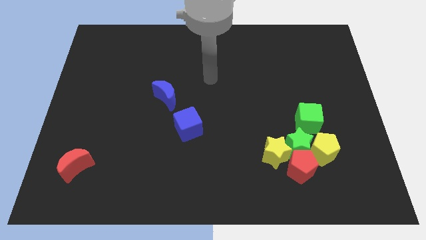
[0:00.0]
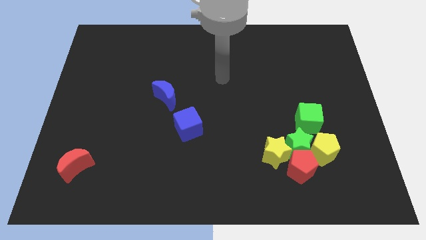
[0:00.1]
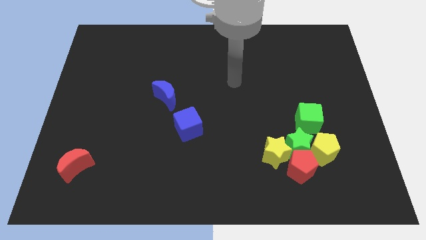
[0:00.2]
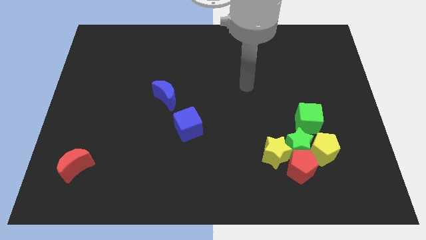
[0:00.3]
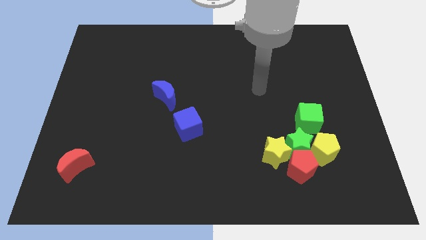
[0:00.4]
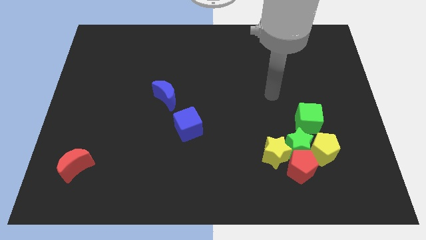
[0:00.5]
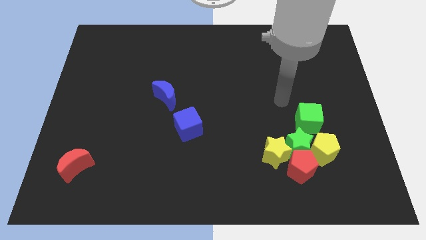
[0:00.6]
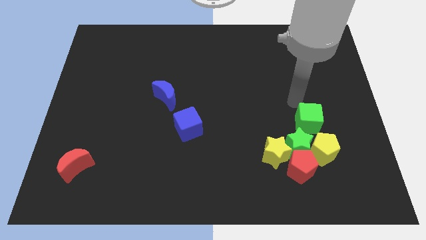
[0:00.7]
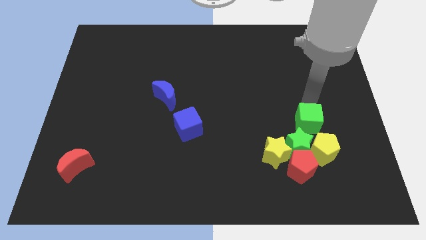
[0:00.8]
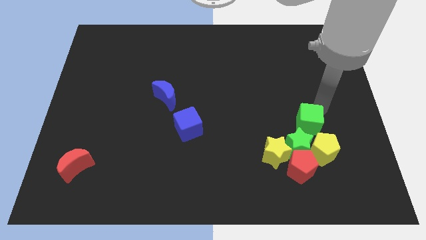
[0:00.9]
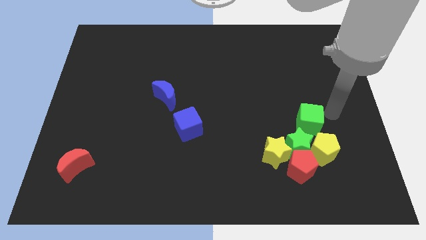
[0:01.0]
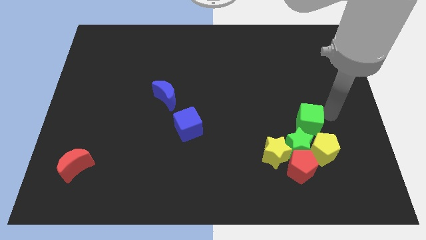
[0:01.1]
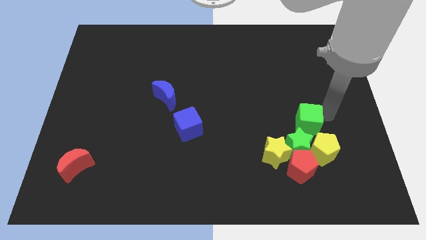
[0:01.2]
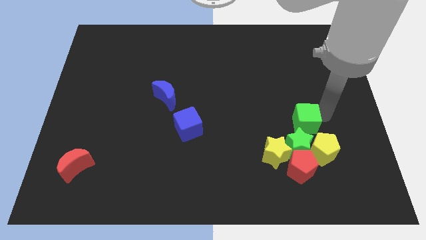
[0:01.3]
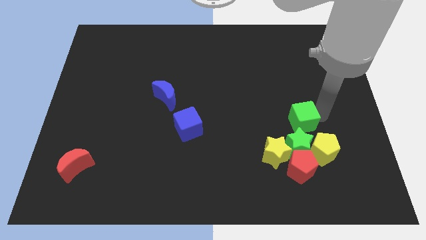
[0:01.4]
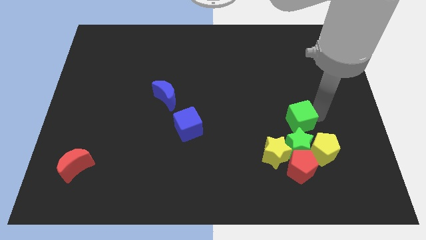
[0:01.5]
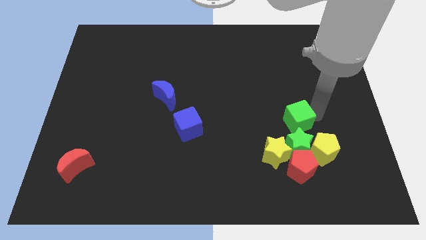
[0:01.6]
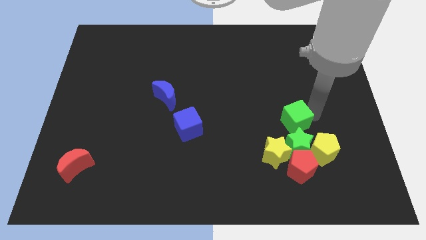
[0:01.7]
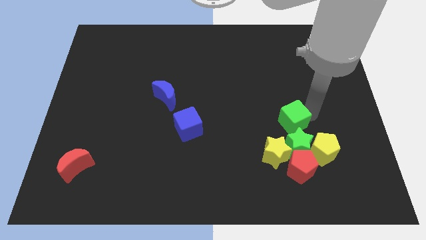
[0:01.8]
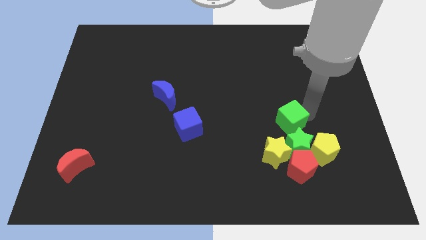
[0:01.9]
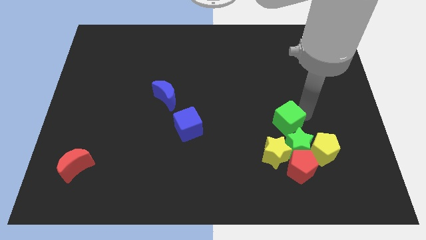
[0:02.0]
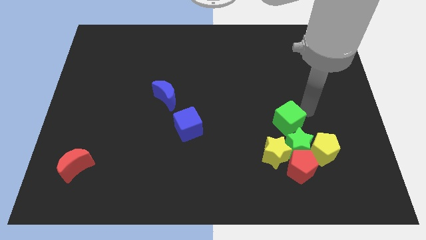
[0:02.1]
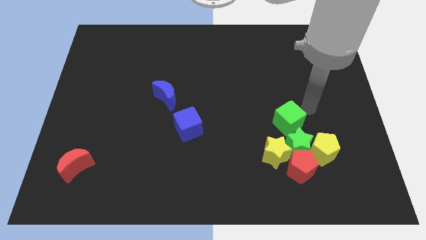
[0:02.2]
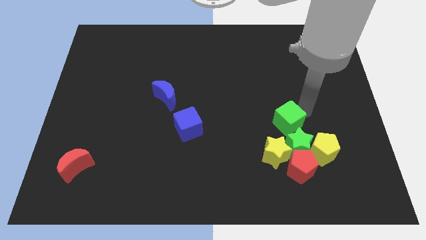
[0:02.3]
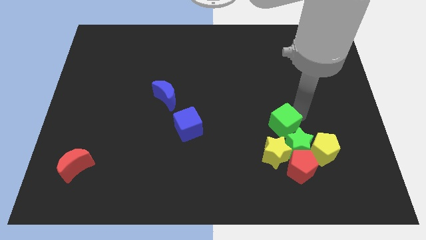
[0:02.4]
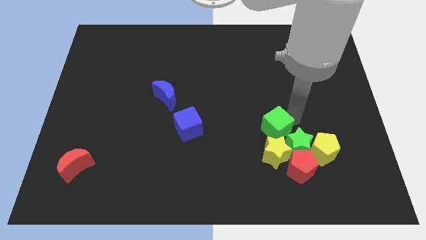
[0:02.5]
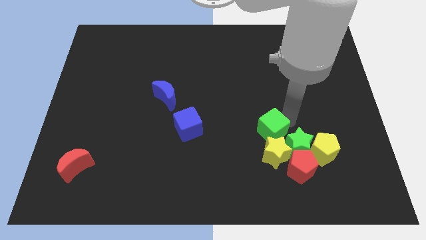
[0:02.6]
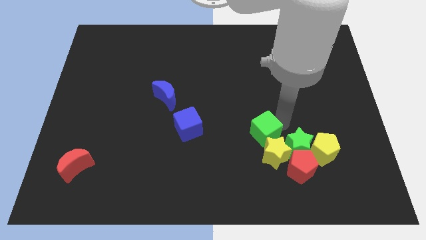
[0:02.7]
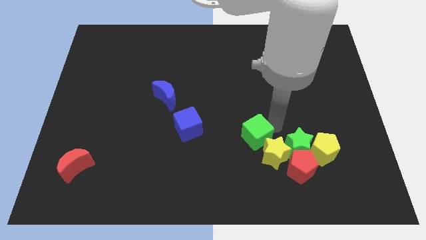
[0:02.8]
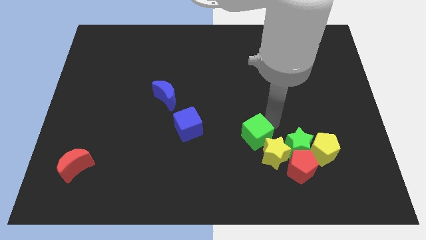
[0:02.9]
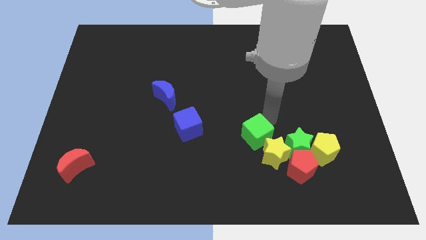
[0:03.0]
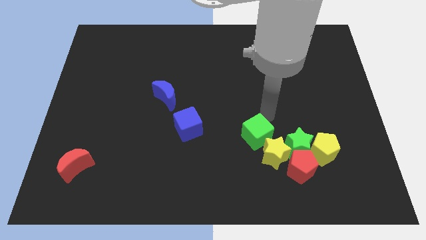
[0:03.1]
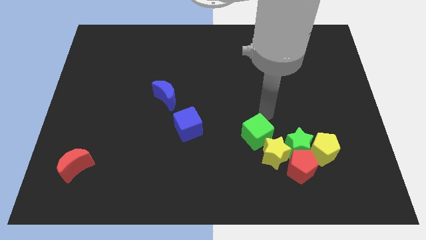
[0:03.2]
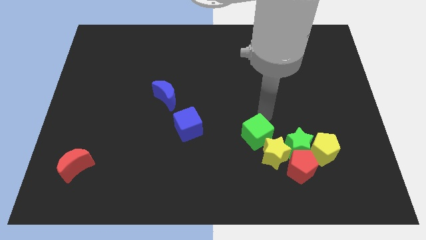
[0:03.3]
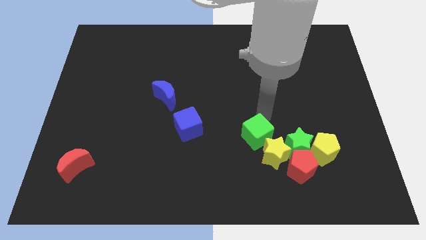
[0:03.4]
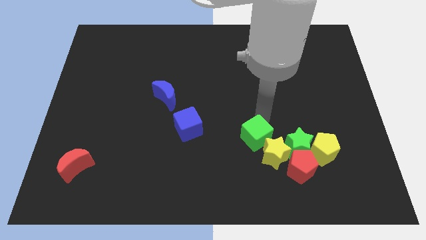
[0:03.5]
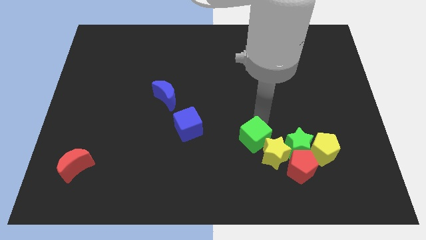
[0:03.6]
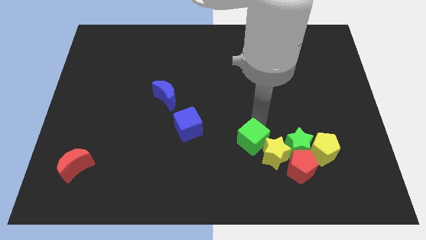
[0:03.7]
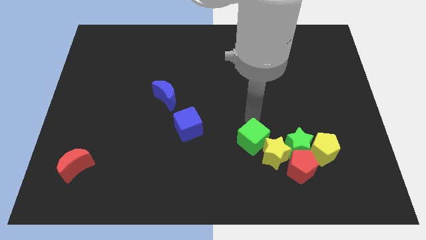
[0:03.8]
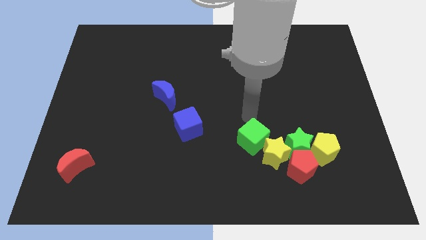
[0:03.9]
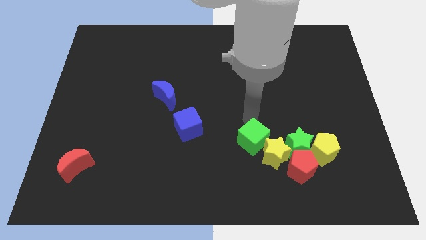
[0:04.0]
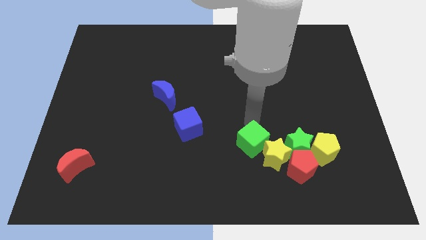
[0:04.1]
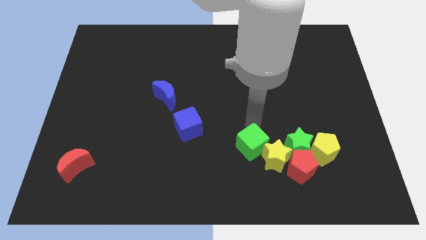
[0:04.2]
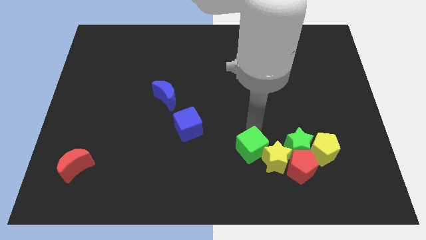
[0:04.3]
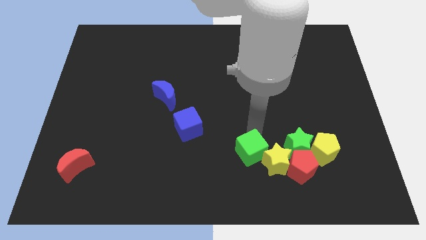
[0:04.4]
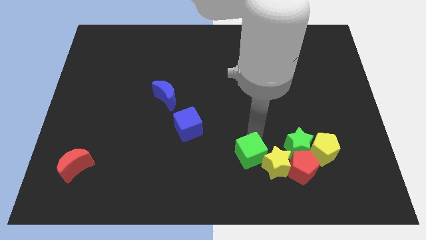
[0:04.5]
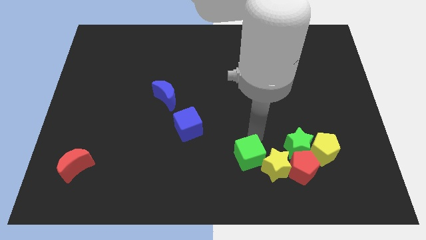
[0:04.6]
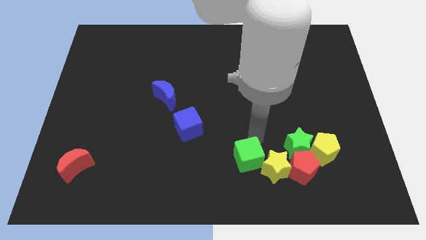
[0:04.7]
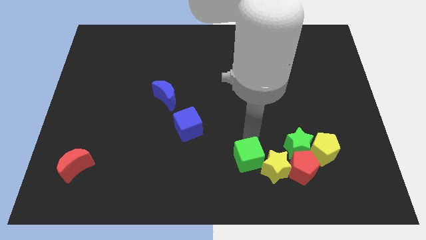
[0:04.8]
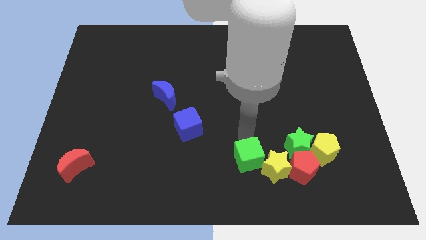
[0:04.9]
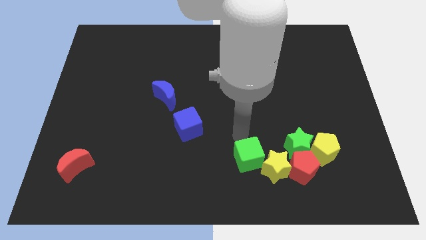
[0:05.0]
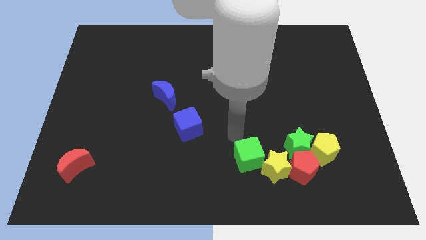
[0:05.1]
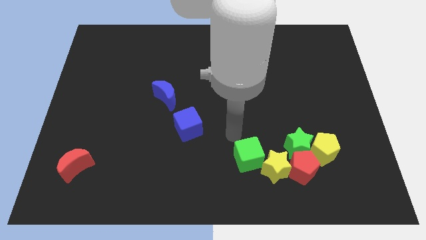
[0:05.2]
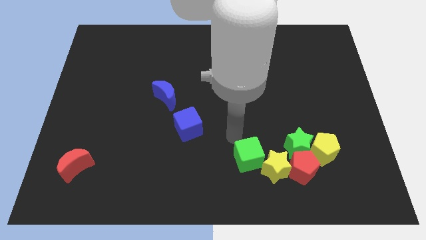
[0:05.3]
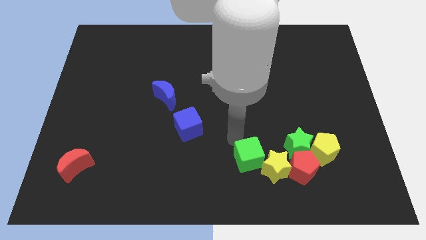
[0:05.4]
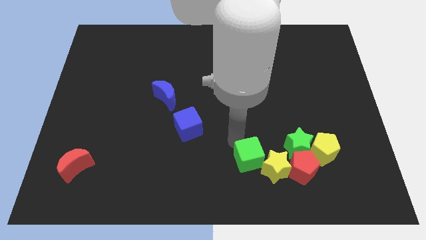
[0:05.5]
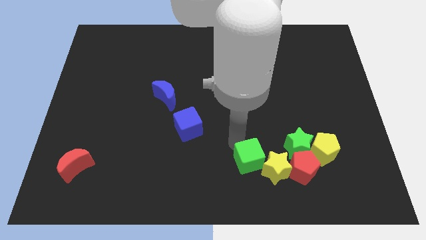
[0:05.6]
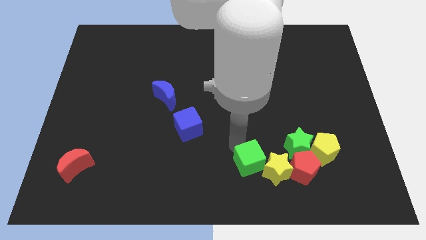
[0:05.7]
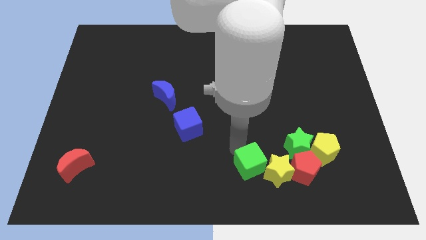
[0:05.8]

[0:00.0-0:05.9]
move the green cube to the bottom left side of the green star

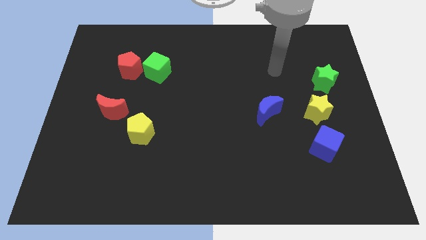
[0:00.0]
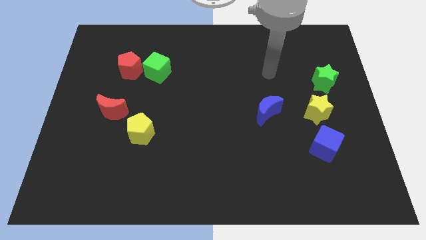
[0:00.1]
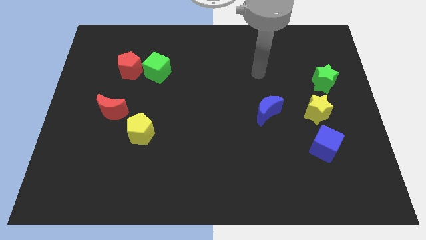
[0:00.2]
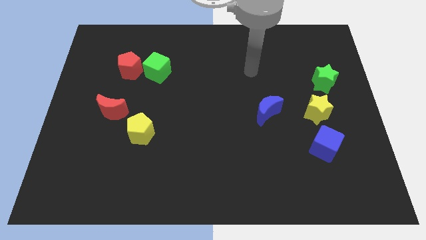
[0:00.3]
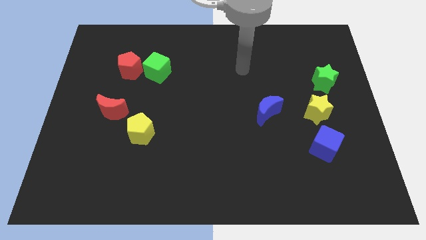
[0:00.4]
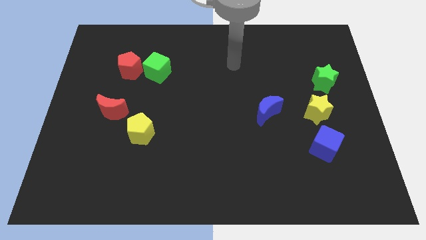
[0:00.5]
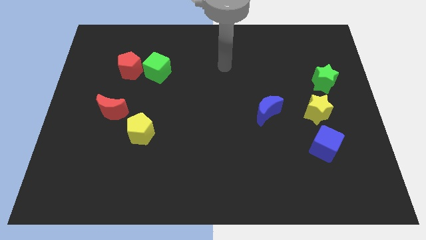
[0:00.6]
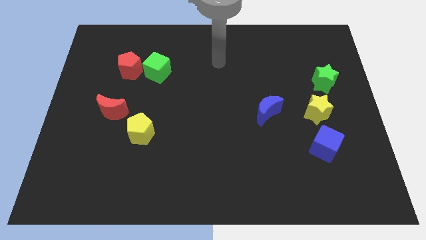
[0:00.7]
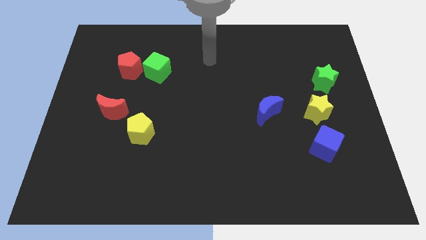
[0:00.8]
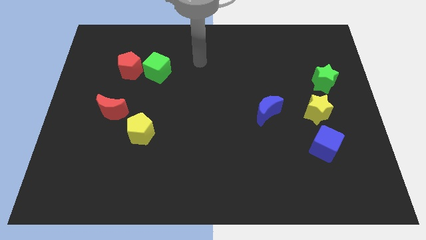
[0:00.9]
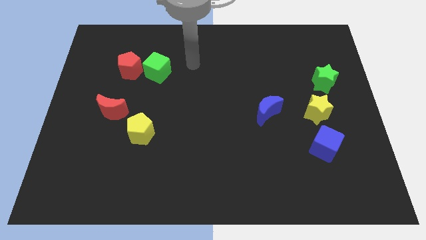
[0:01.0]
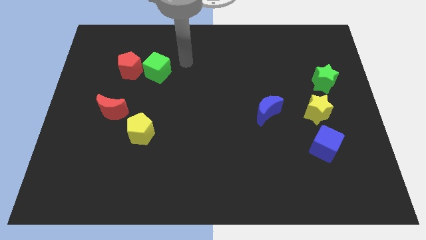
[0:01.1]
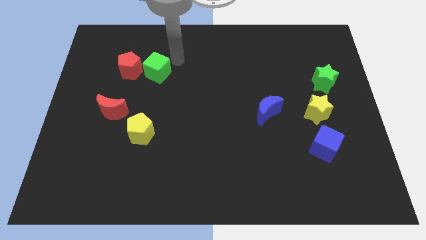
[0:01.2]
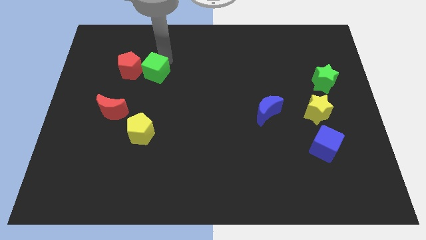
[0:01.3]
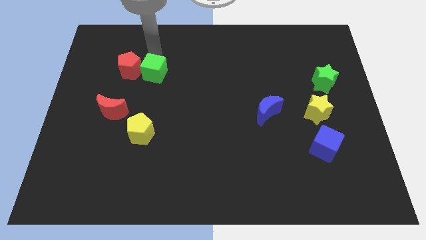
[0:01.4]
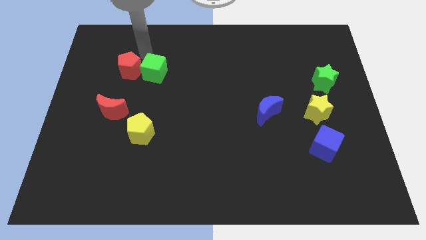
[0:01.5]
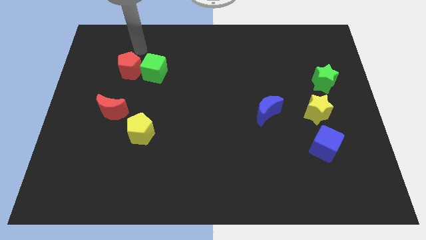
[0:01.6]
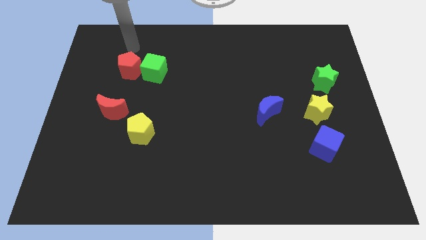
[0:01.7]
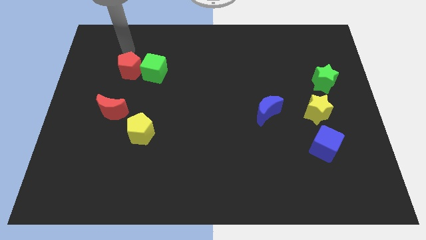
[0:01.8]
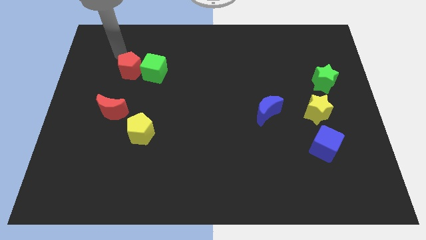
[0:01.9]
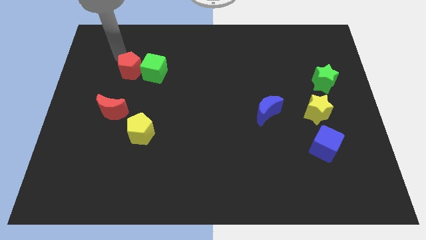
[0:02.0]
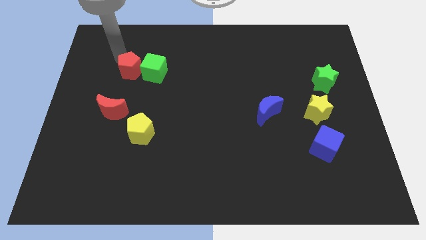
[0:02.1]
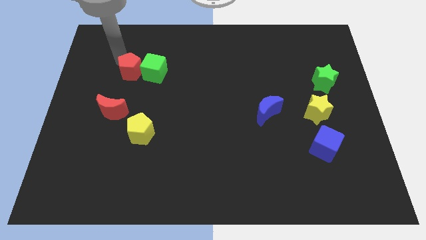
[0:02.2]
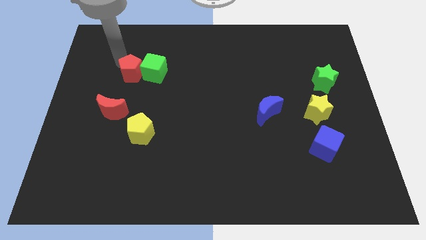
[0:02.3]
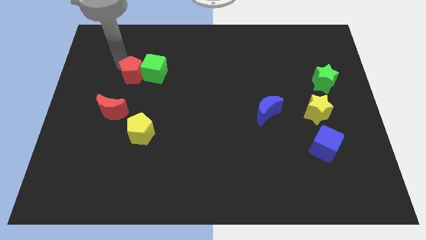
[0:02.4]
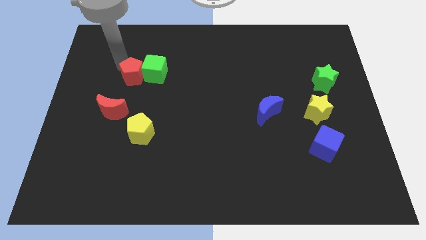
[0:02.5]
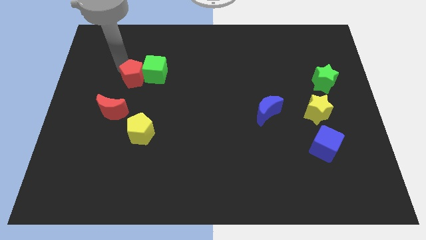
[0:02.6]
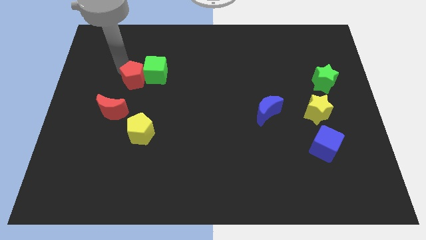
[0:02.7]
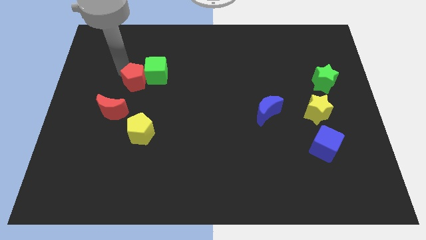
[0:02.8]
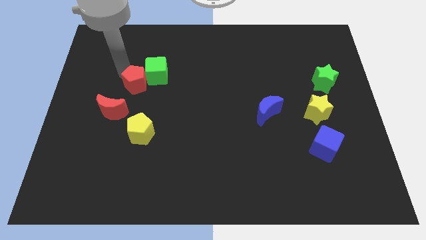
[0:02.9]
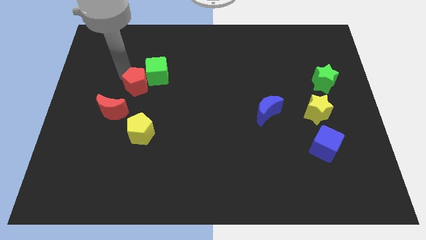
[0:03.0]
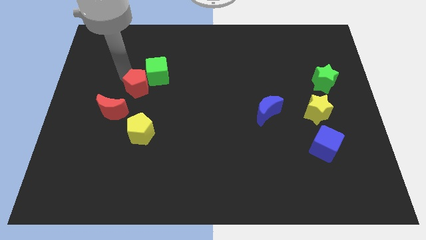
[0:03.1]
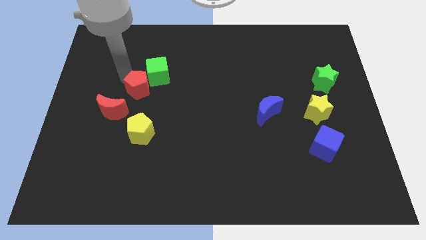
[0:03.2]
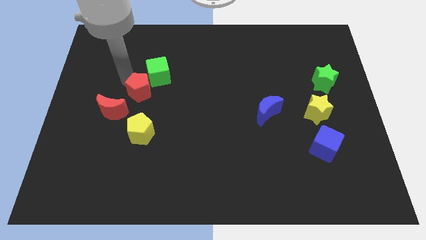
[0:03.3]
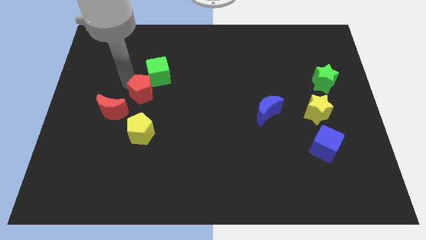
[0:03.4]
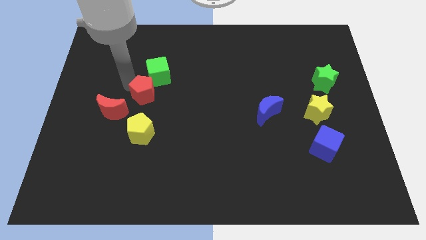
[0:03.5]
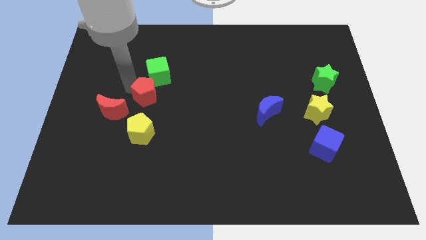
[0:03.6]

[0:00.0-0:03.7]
push the red pentagon to the right of the red moon
